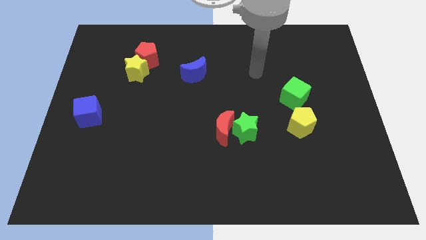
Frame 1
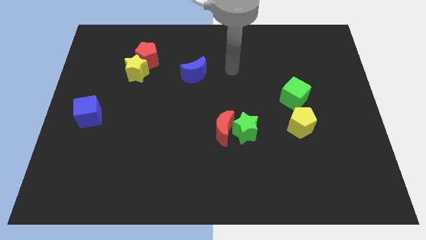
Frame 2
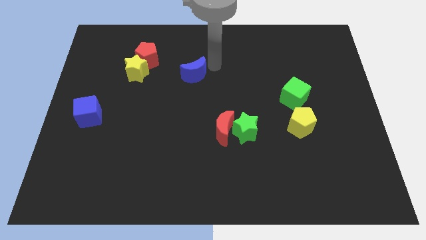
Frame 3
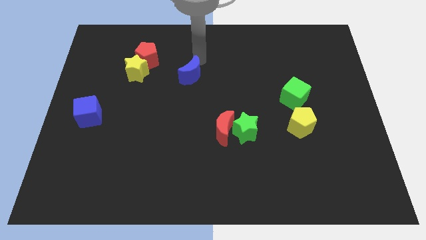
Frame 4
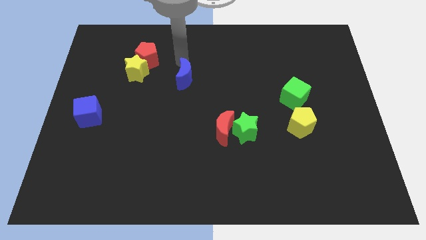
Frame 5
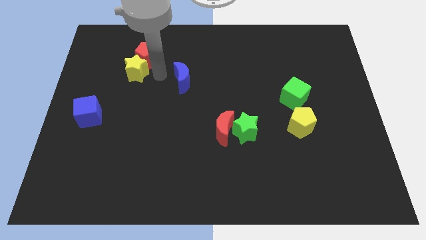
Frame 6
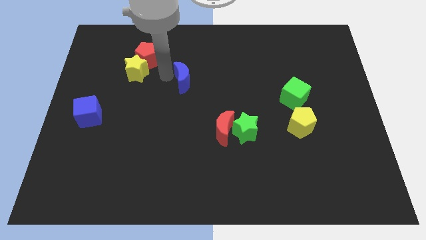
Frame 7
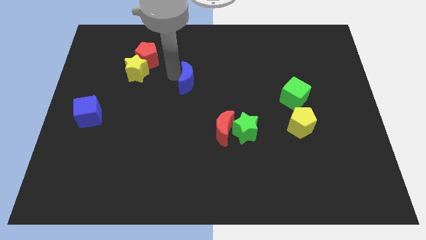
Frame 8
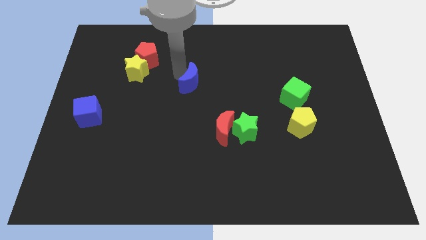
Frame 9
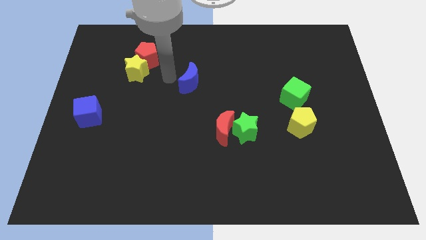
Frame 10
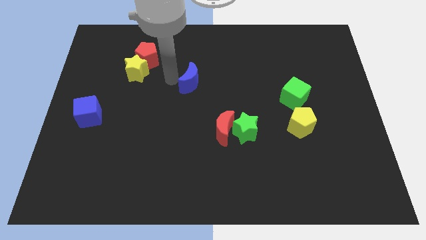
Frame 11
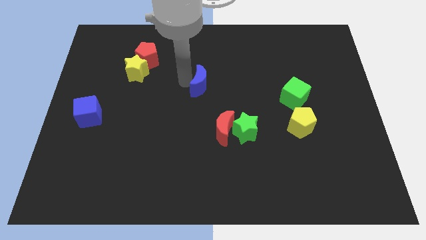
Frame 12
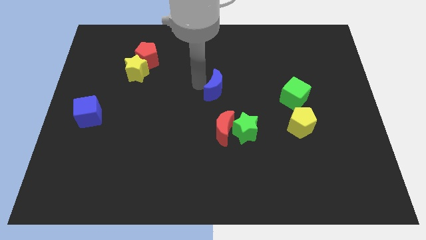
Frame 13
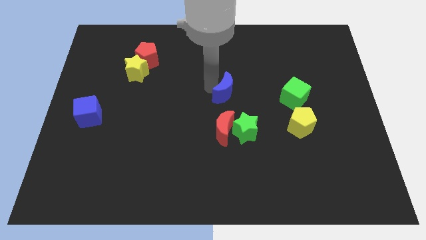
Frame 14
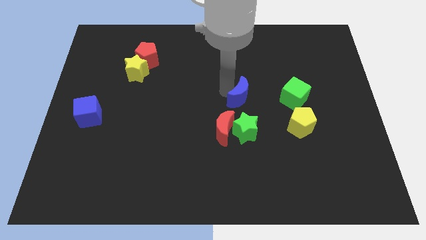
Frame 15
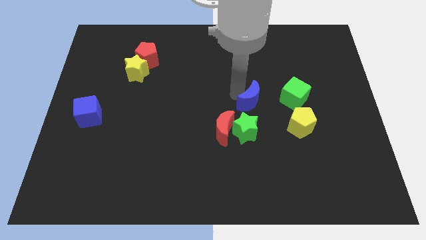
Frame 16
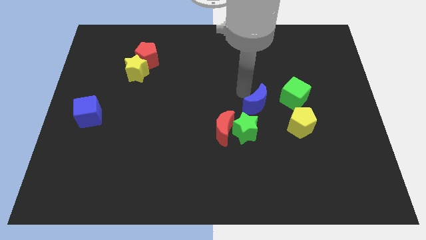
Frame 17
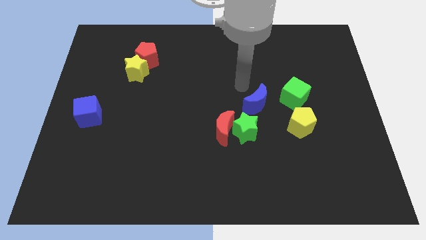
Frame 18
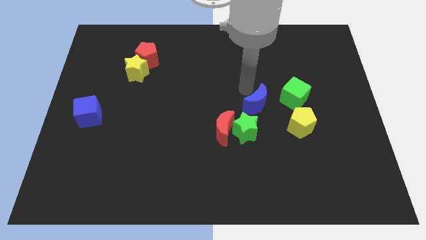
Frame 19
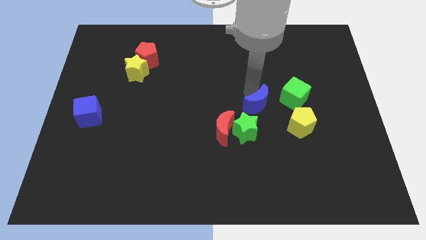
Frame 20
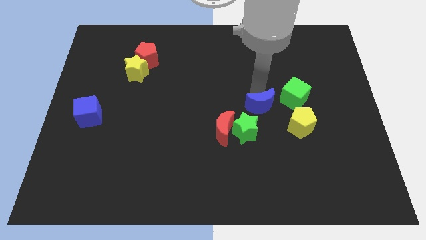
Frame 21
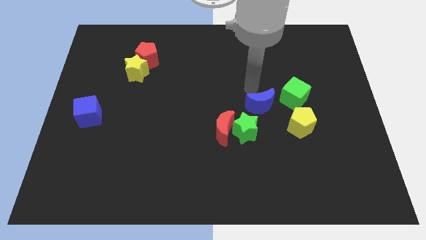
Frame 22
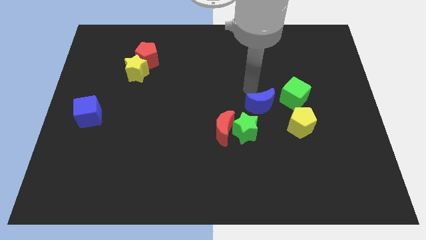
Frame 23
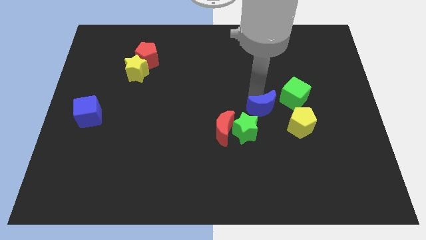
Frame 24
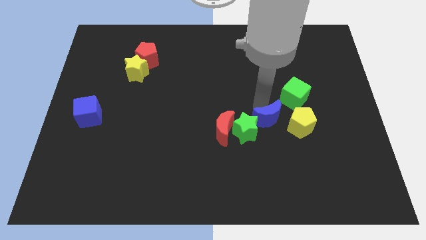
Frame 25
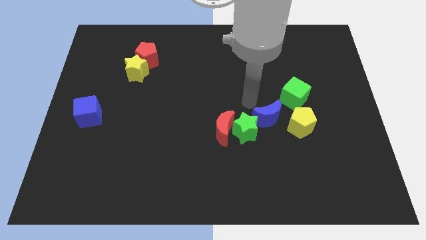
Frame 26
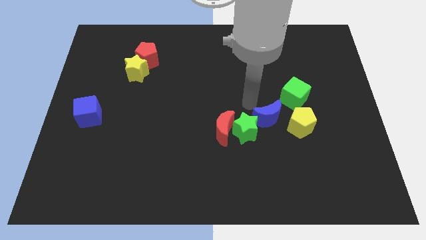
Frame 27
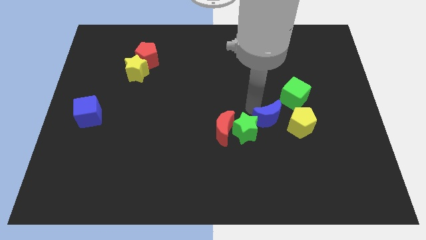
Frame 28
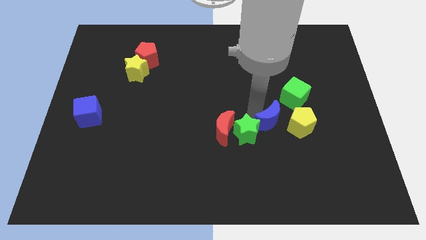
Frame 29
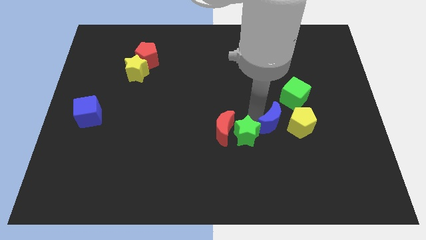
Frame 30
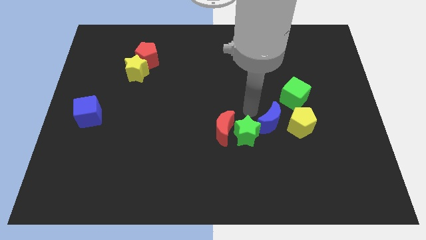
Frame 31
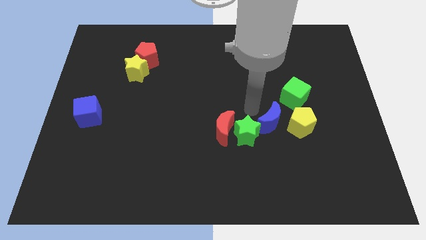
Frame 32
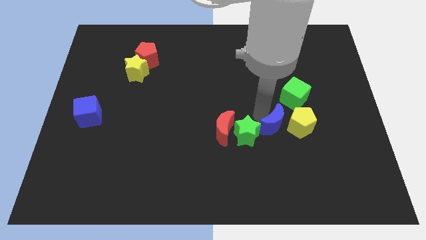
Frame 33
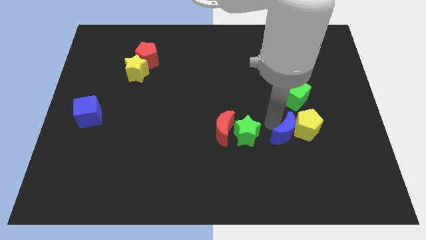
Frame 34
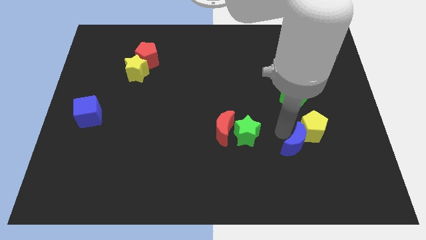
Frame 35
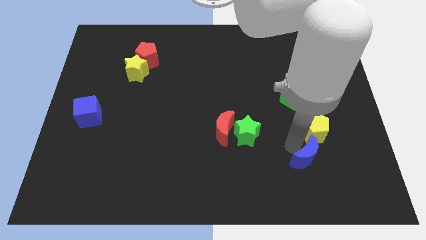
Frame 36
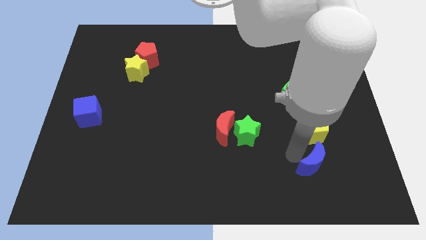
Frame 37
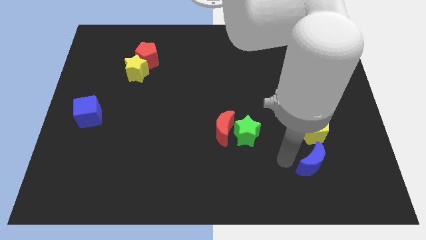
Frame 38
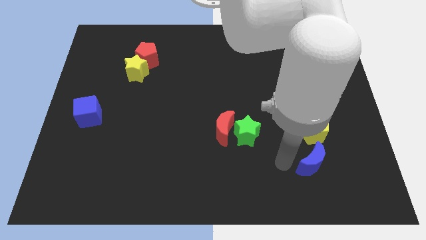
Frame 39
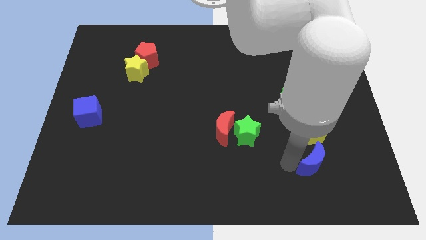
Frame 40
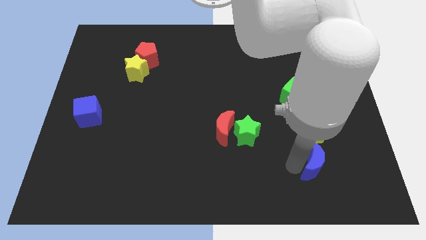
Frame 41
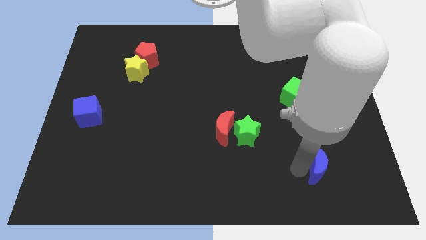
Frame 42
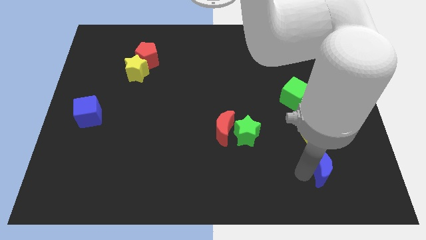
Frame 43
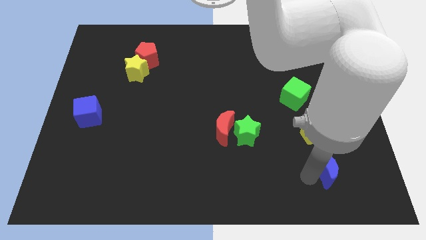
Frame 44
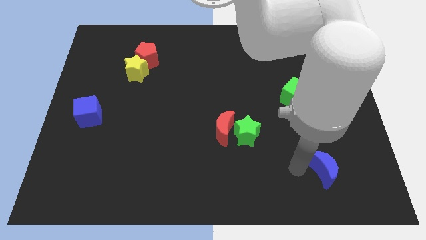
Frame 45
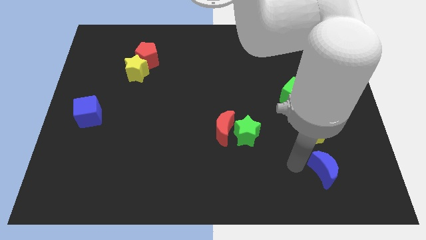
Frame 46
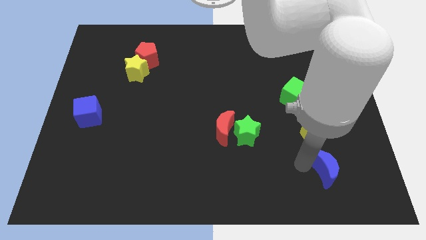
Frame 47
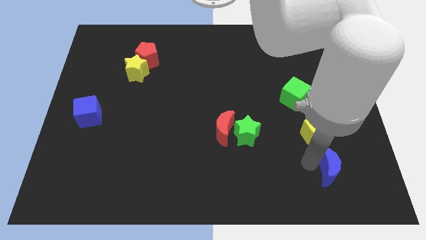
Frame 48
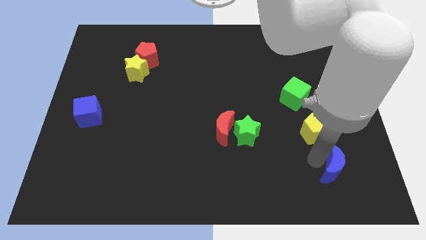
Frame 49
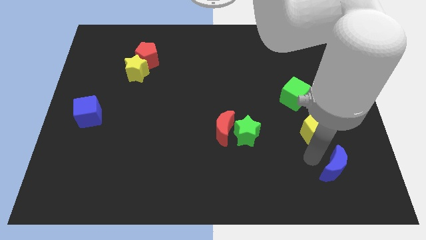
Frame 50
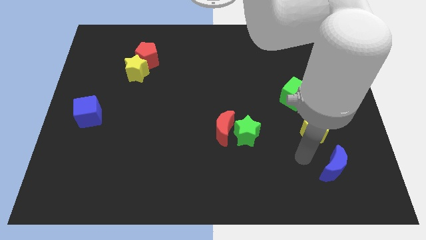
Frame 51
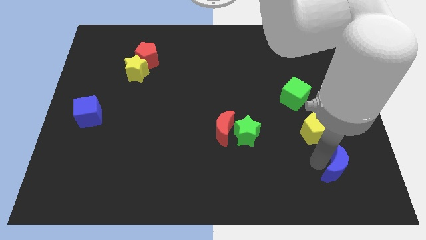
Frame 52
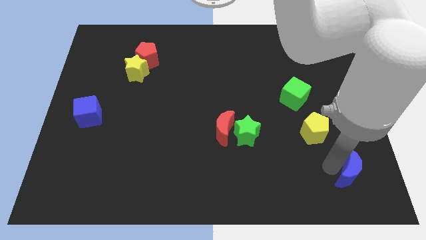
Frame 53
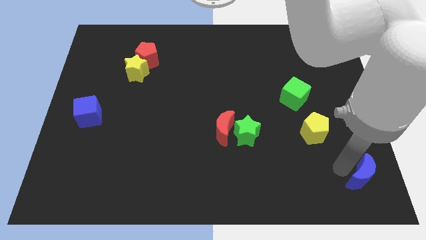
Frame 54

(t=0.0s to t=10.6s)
put the blue moon to the lower right corner

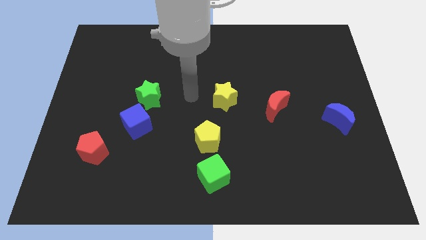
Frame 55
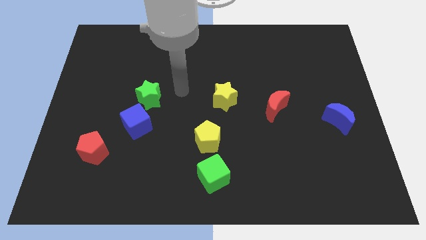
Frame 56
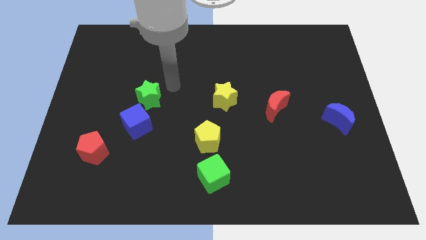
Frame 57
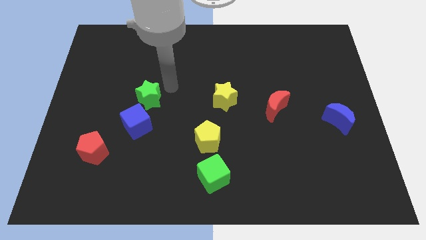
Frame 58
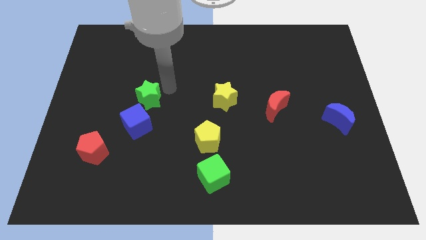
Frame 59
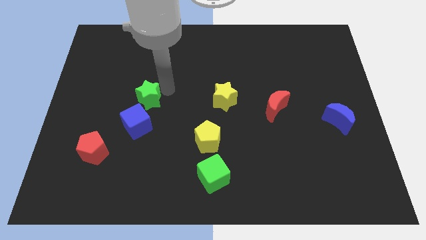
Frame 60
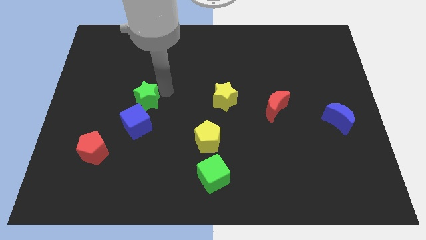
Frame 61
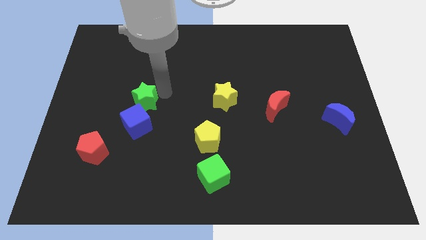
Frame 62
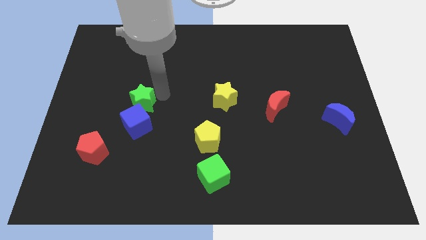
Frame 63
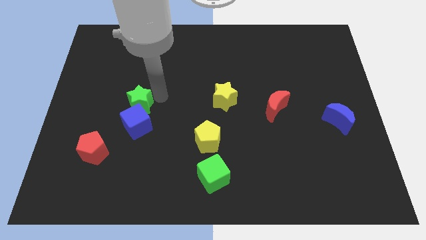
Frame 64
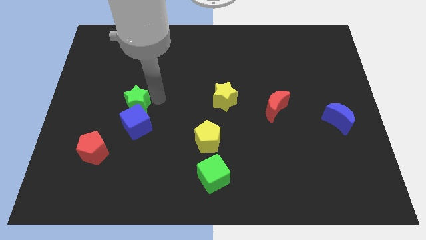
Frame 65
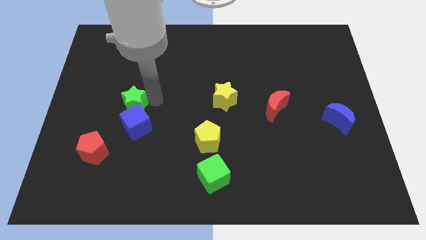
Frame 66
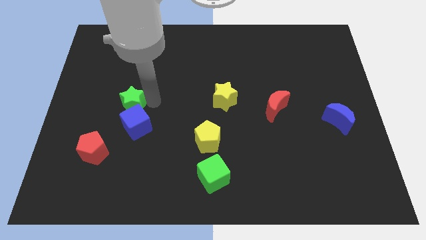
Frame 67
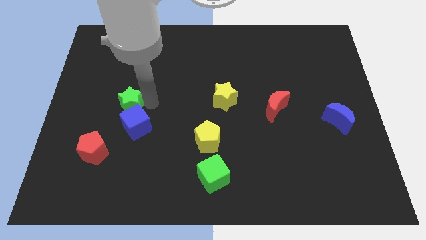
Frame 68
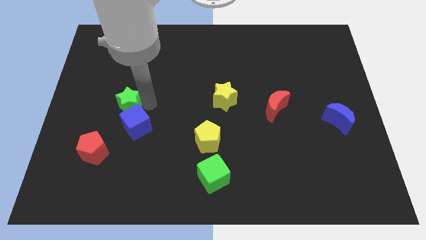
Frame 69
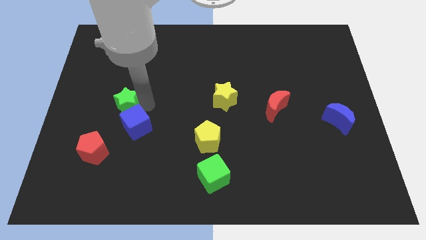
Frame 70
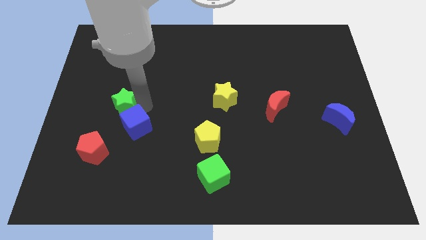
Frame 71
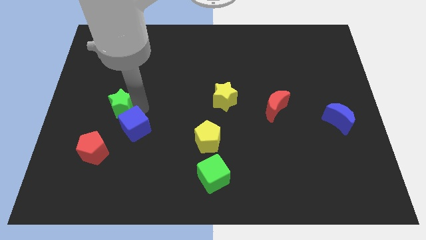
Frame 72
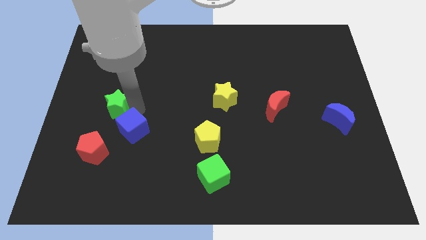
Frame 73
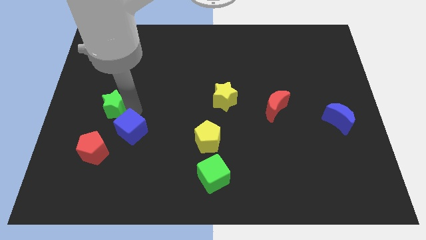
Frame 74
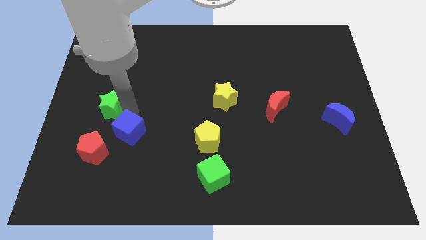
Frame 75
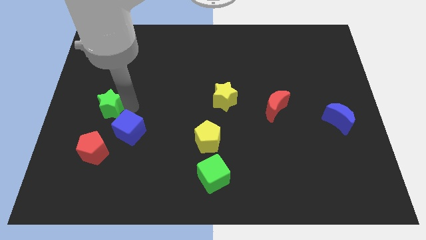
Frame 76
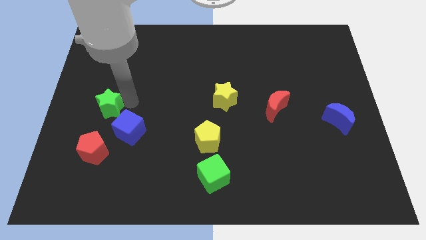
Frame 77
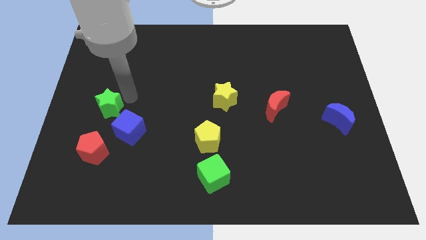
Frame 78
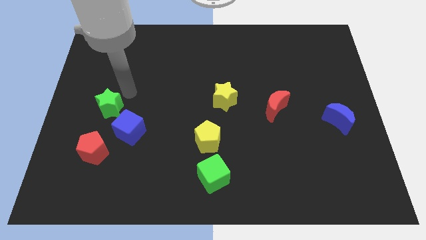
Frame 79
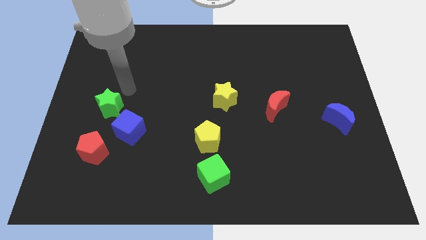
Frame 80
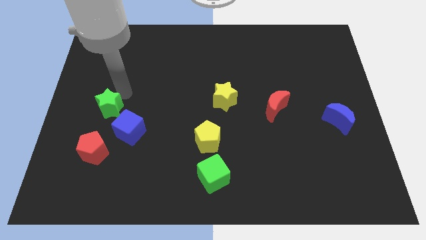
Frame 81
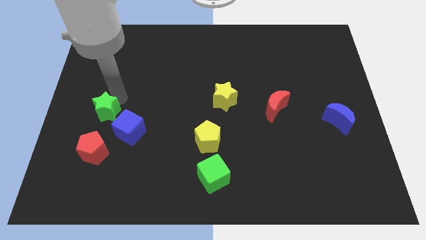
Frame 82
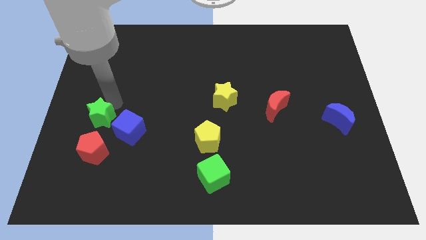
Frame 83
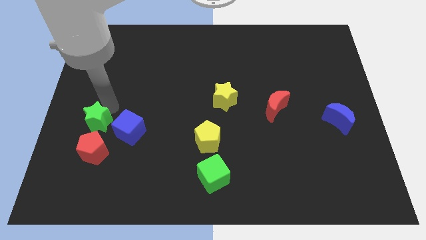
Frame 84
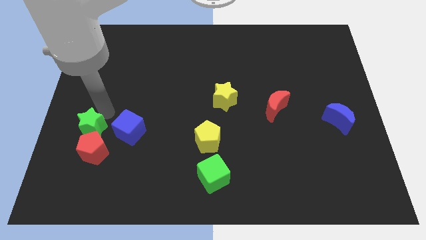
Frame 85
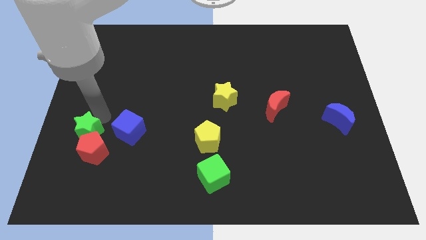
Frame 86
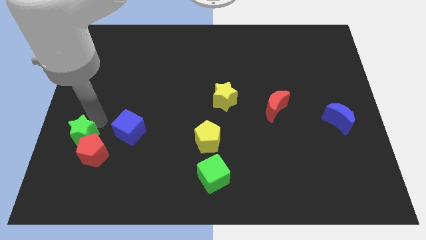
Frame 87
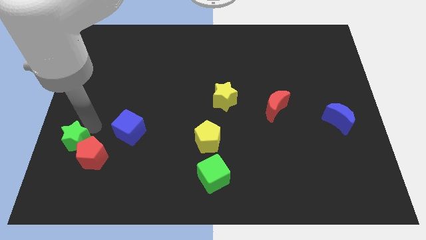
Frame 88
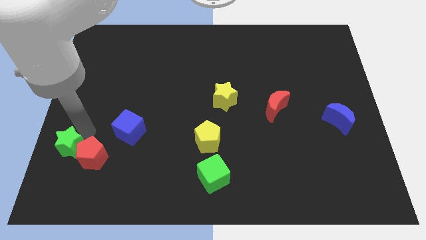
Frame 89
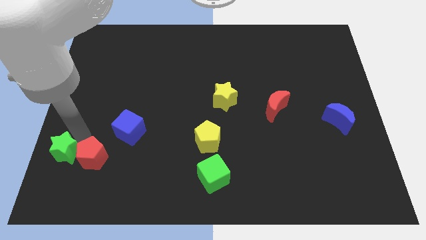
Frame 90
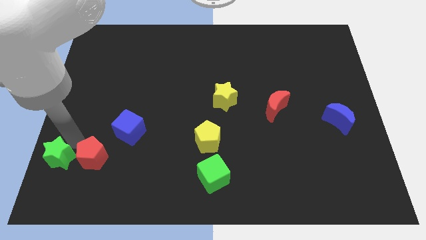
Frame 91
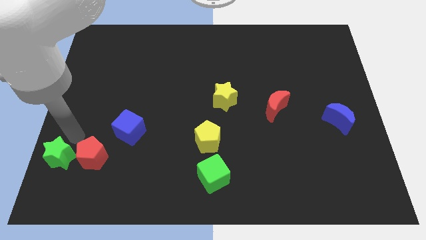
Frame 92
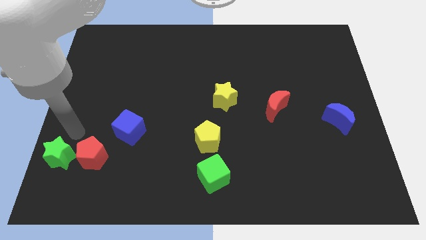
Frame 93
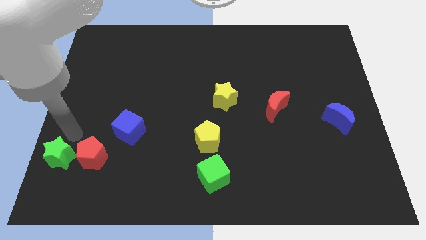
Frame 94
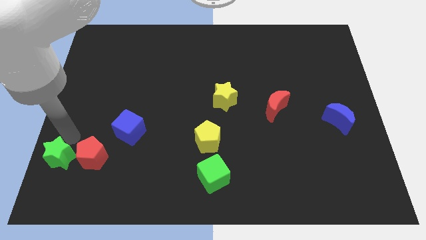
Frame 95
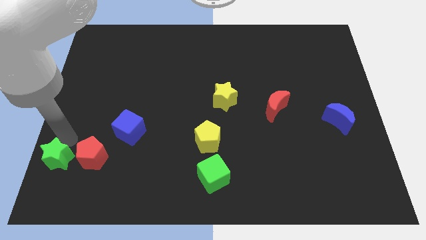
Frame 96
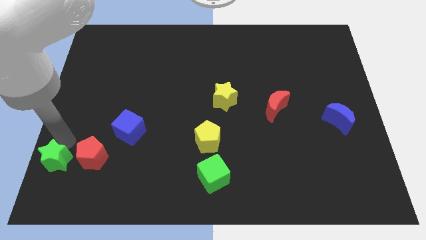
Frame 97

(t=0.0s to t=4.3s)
push the green star to the bottom left
